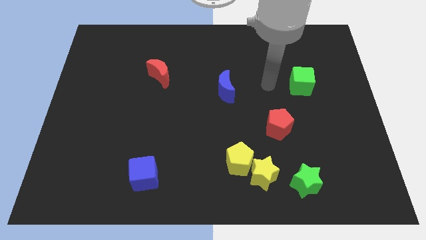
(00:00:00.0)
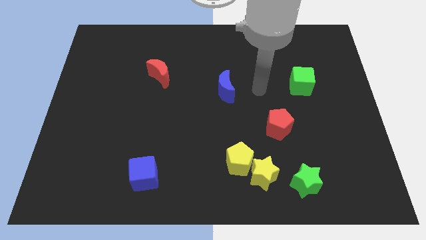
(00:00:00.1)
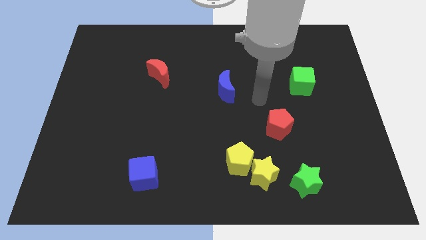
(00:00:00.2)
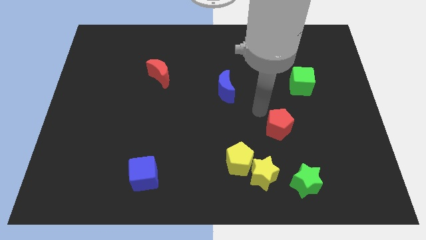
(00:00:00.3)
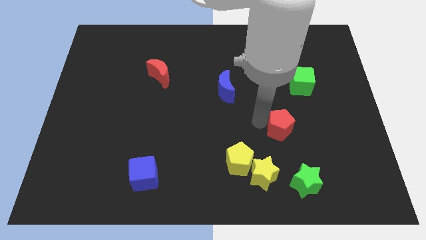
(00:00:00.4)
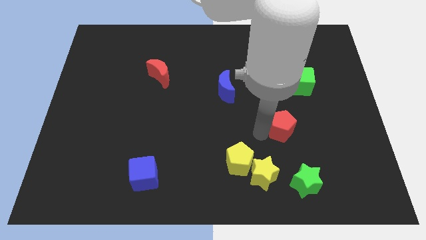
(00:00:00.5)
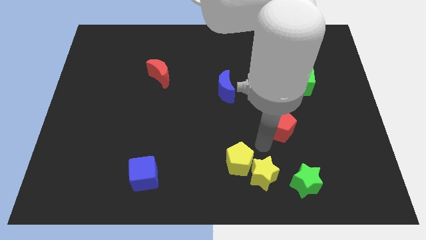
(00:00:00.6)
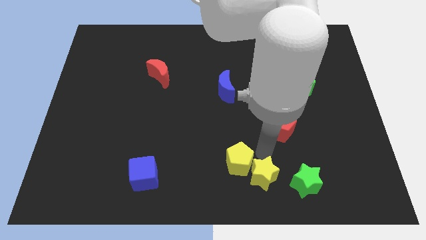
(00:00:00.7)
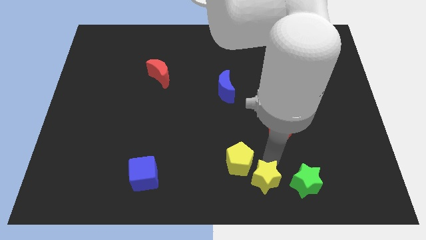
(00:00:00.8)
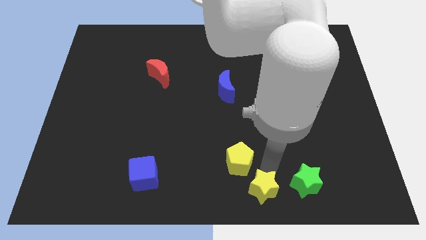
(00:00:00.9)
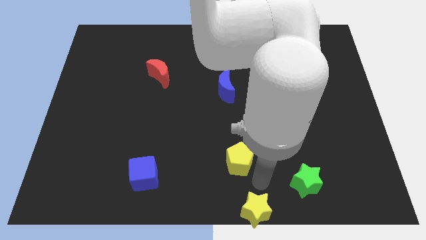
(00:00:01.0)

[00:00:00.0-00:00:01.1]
separate the yellow pentagon from the yellow star

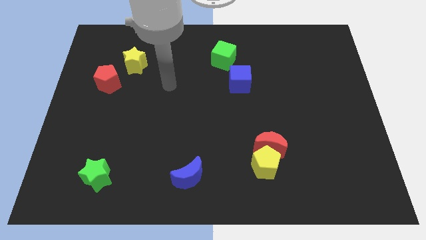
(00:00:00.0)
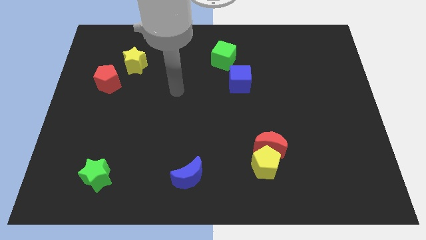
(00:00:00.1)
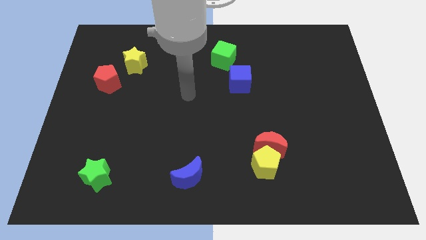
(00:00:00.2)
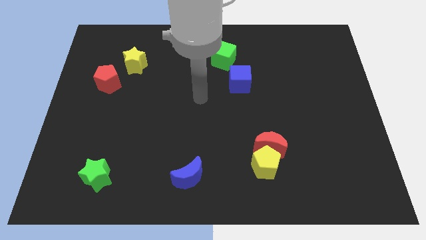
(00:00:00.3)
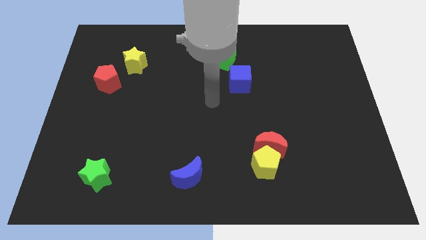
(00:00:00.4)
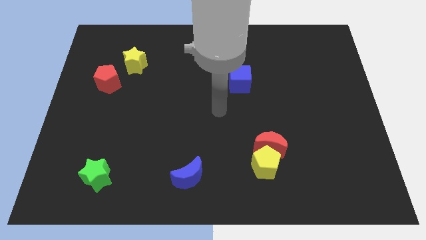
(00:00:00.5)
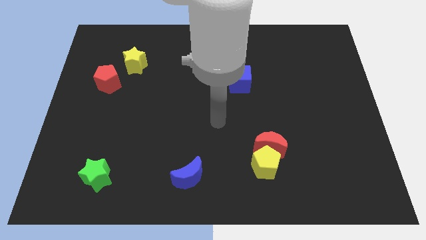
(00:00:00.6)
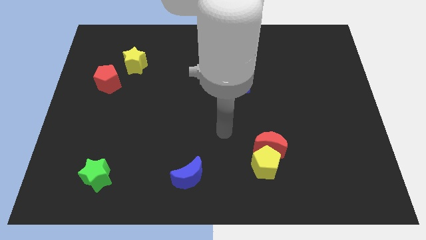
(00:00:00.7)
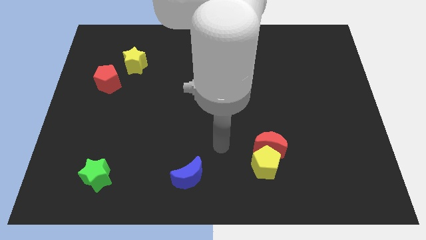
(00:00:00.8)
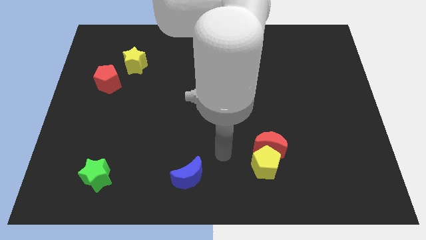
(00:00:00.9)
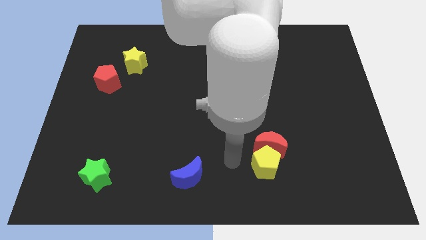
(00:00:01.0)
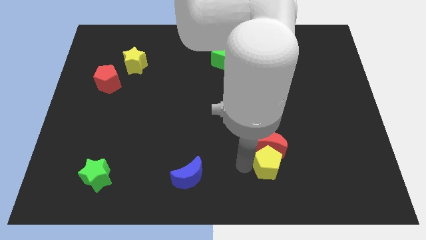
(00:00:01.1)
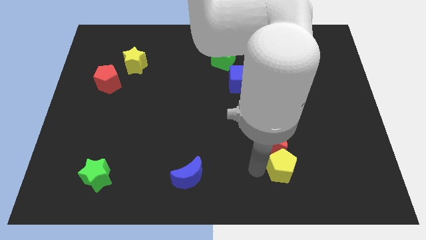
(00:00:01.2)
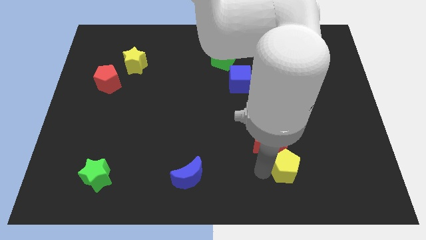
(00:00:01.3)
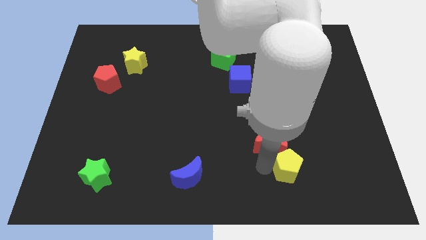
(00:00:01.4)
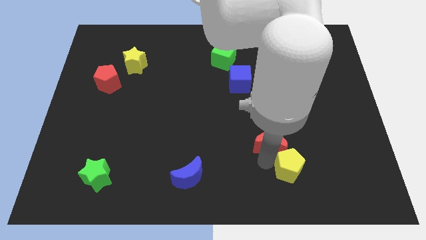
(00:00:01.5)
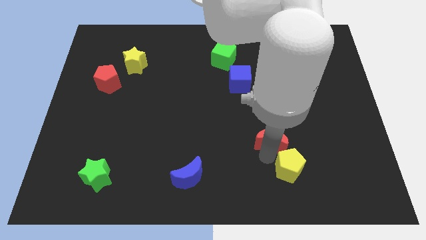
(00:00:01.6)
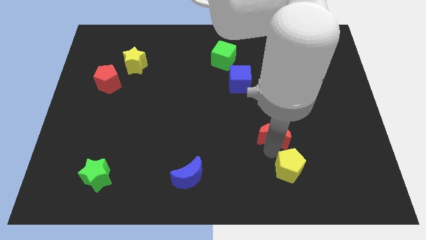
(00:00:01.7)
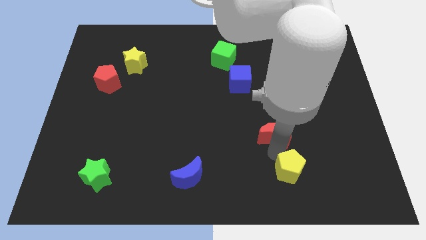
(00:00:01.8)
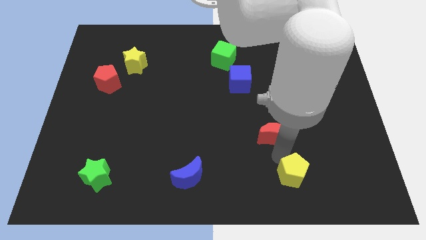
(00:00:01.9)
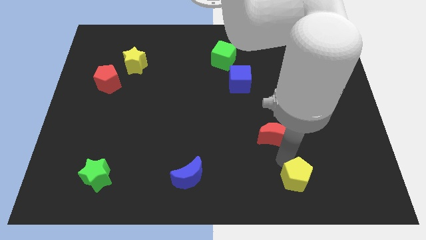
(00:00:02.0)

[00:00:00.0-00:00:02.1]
move the red moon away from the yellow pentagon

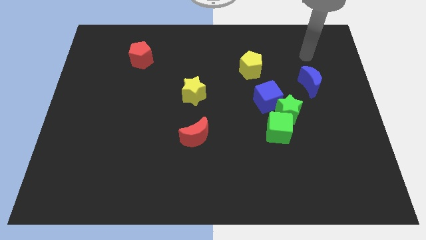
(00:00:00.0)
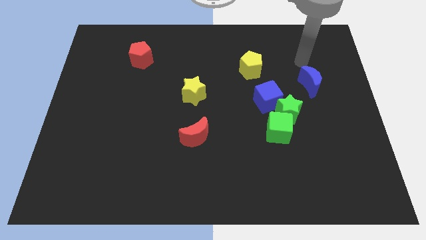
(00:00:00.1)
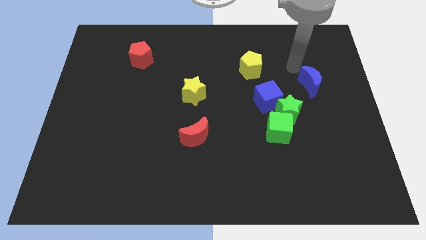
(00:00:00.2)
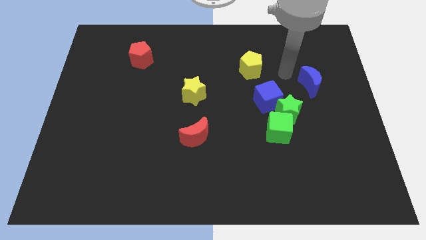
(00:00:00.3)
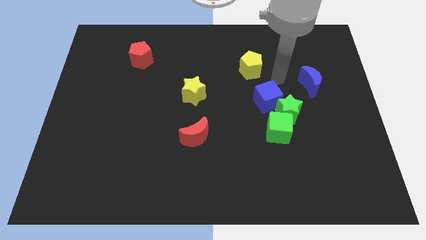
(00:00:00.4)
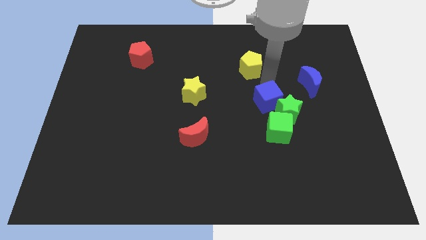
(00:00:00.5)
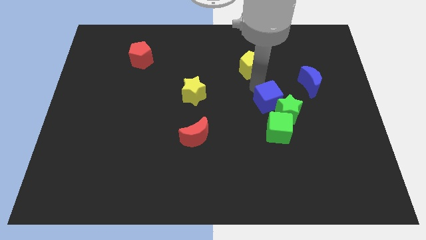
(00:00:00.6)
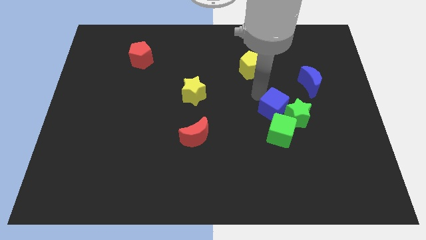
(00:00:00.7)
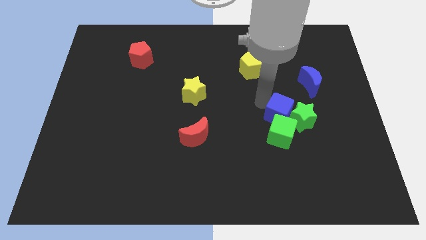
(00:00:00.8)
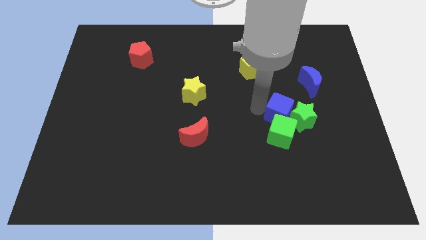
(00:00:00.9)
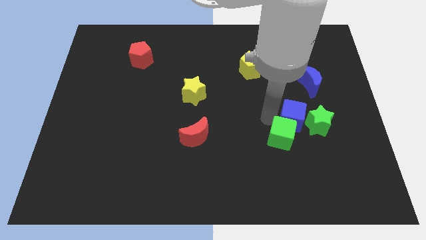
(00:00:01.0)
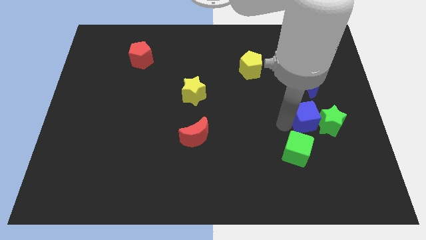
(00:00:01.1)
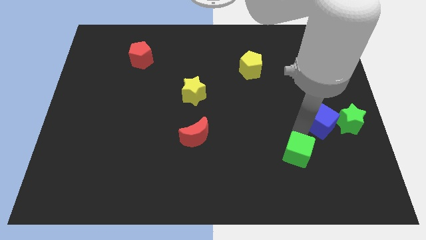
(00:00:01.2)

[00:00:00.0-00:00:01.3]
move the green star away from the blue cube and green cube

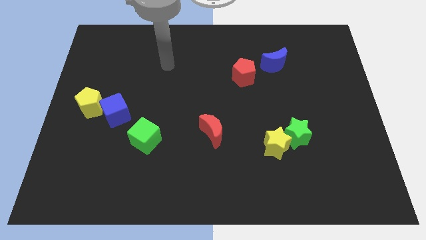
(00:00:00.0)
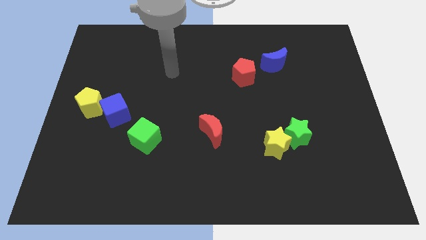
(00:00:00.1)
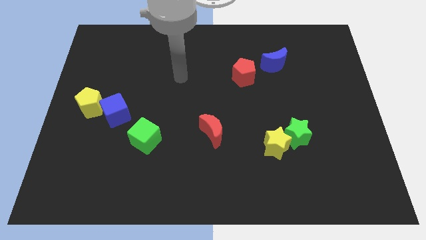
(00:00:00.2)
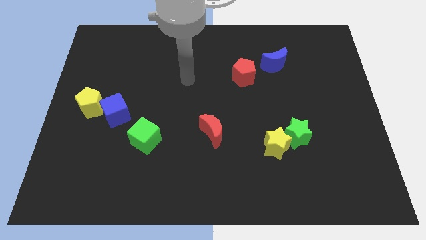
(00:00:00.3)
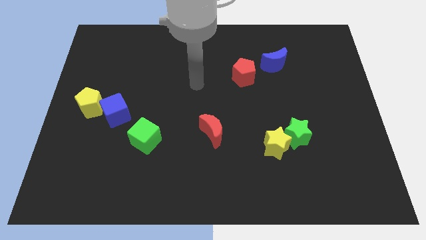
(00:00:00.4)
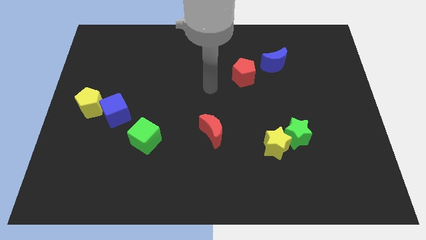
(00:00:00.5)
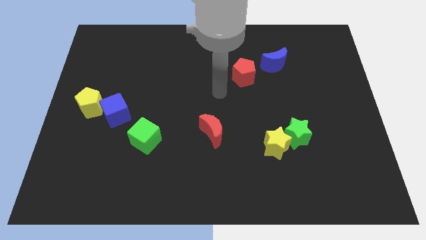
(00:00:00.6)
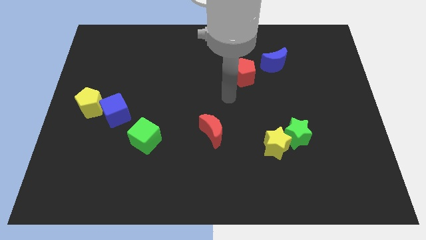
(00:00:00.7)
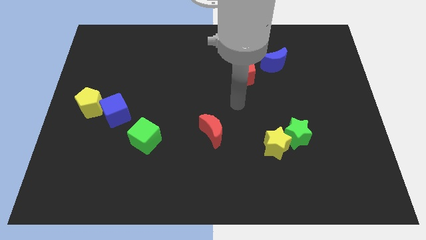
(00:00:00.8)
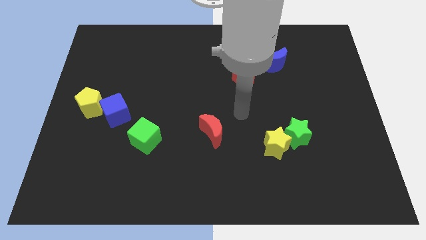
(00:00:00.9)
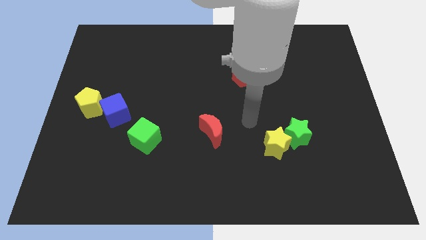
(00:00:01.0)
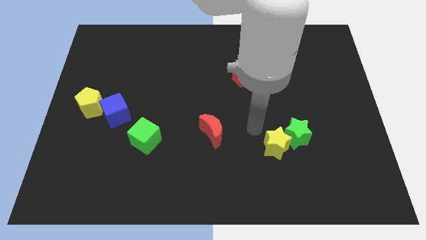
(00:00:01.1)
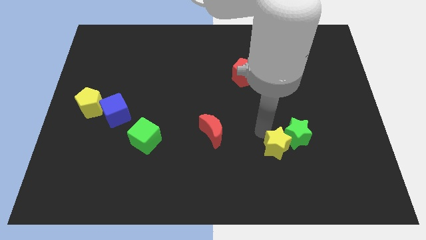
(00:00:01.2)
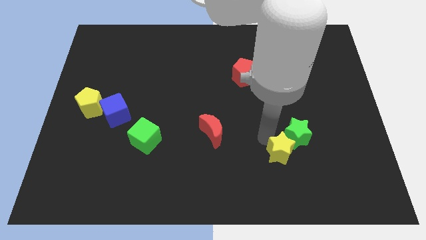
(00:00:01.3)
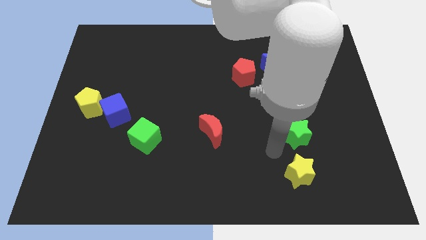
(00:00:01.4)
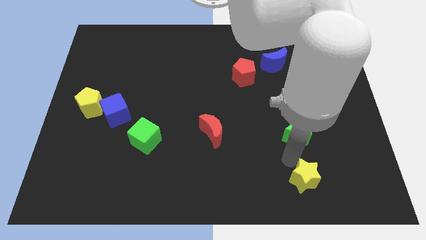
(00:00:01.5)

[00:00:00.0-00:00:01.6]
separate the green star from the yellow star

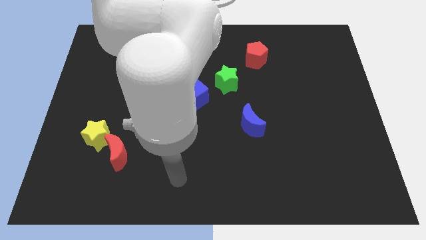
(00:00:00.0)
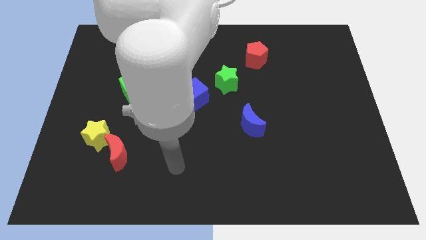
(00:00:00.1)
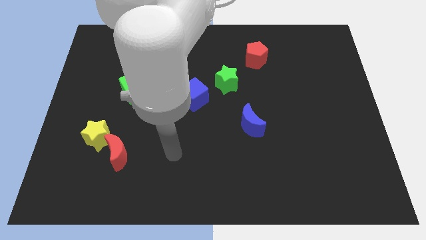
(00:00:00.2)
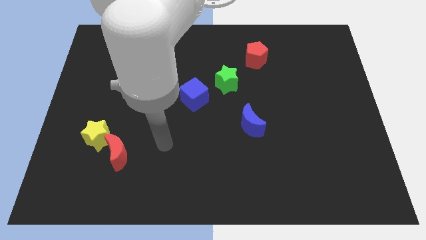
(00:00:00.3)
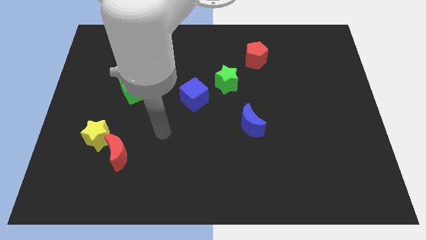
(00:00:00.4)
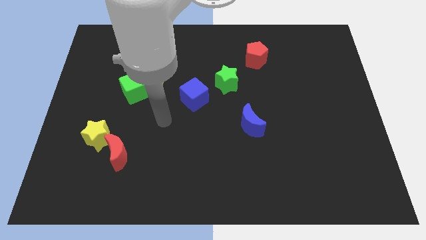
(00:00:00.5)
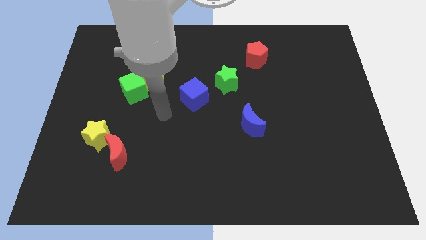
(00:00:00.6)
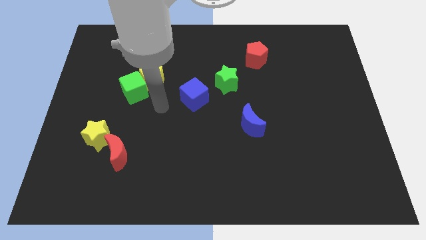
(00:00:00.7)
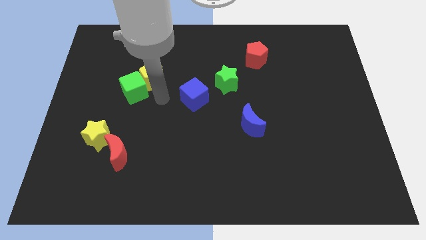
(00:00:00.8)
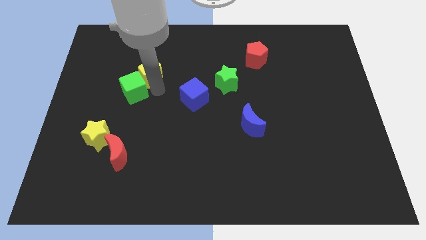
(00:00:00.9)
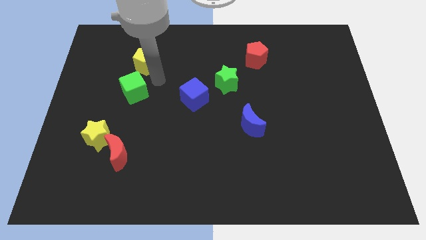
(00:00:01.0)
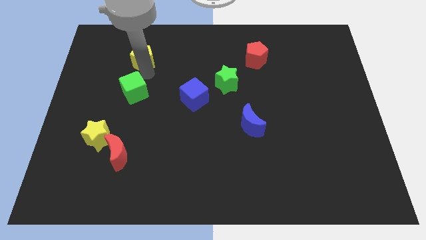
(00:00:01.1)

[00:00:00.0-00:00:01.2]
pull the green cube apart from the yellow pentagon

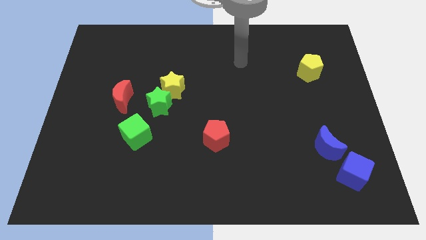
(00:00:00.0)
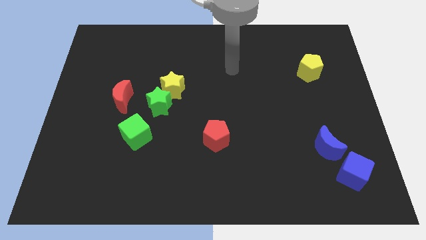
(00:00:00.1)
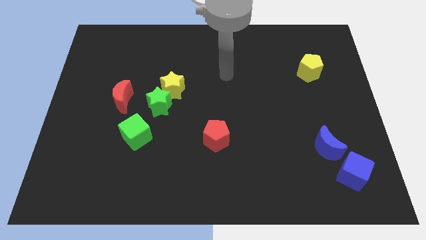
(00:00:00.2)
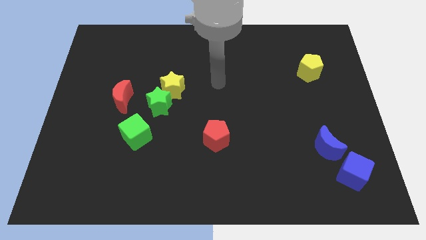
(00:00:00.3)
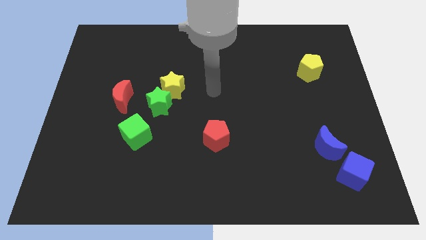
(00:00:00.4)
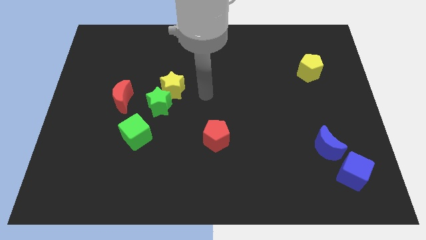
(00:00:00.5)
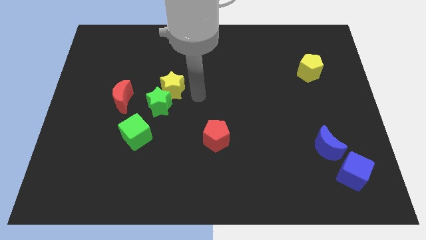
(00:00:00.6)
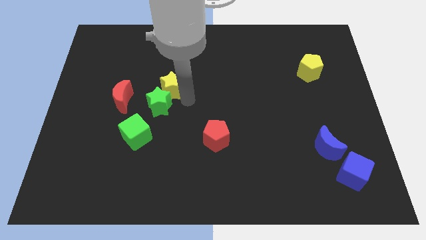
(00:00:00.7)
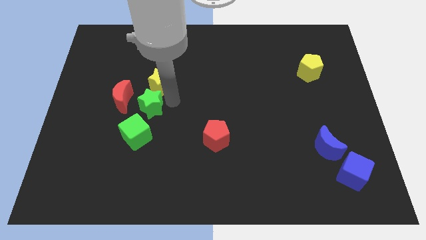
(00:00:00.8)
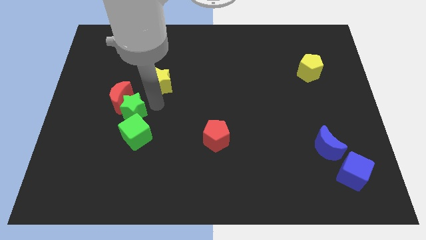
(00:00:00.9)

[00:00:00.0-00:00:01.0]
separate the yellow star from the green star

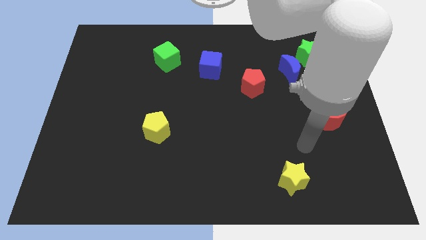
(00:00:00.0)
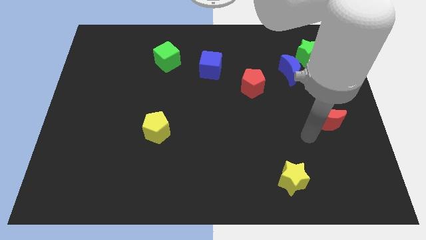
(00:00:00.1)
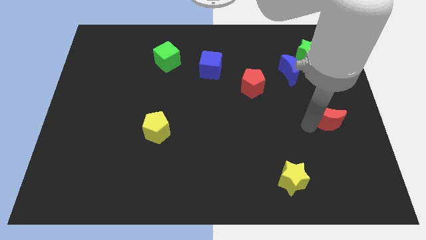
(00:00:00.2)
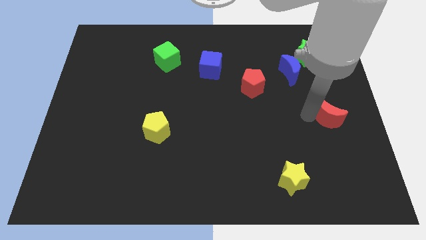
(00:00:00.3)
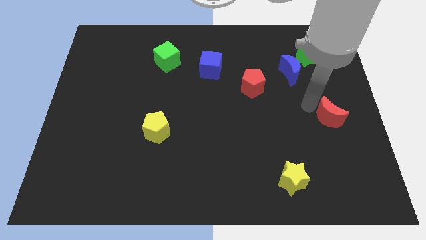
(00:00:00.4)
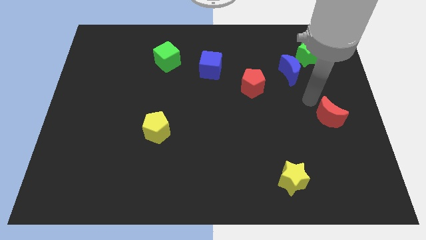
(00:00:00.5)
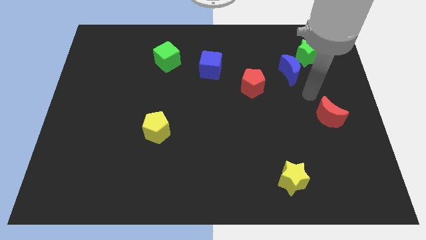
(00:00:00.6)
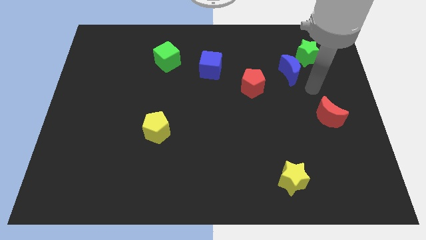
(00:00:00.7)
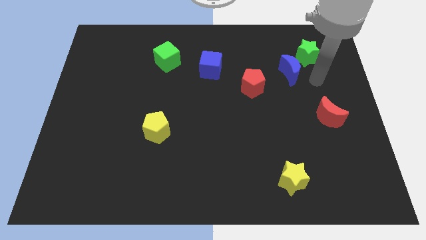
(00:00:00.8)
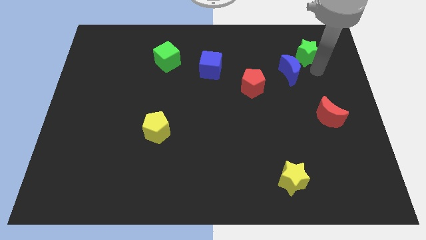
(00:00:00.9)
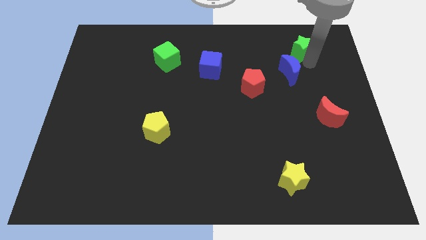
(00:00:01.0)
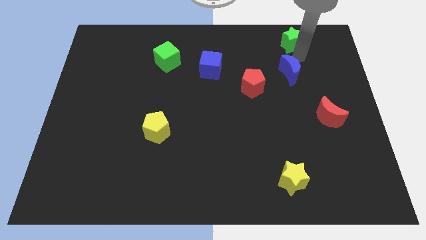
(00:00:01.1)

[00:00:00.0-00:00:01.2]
pull the blue moon apart from the green star
